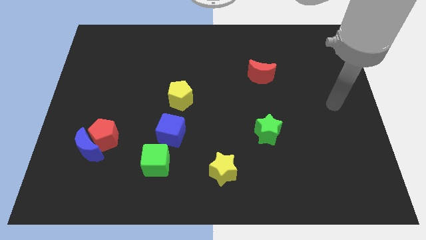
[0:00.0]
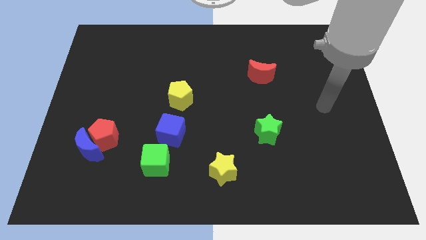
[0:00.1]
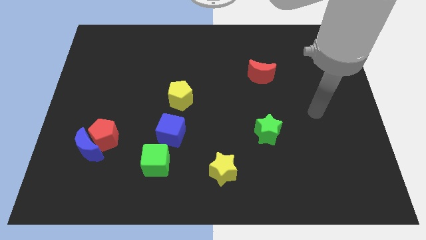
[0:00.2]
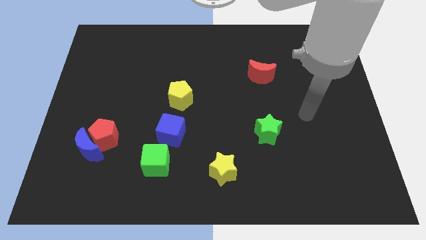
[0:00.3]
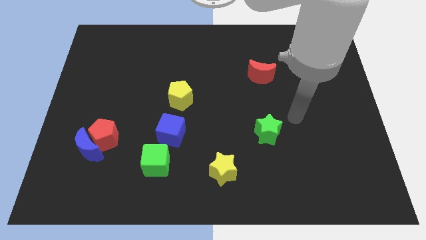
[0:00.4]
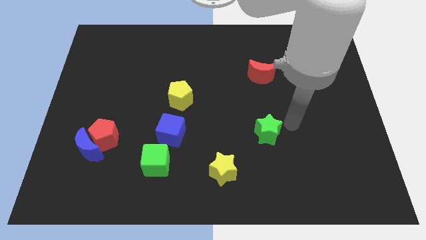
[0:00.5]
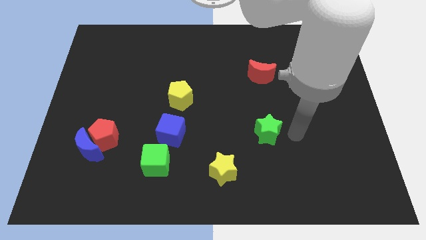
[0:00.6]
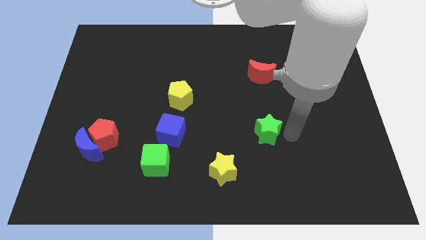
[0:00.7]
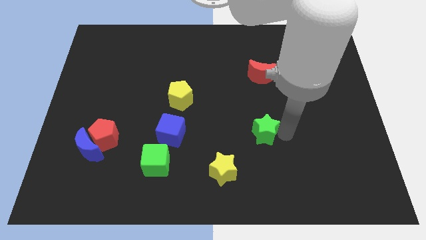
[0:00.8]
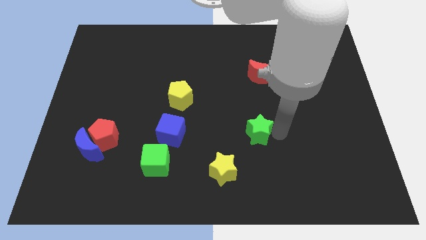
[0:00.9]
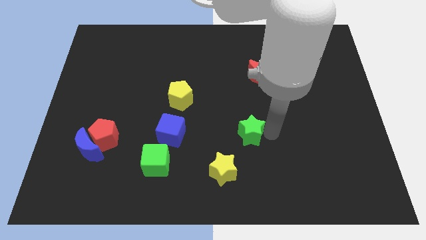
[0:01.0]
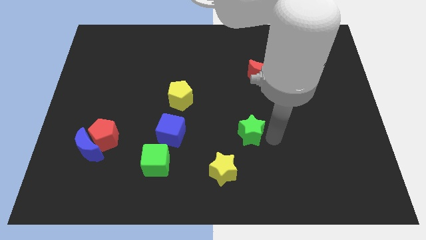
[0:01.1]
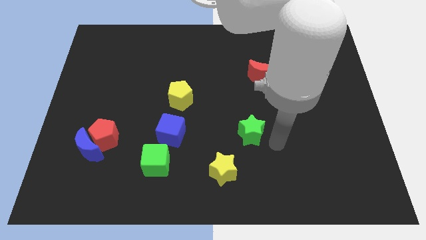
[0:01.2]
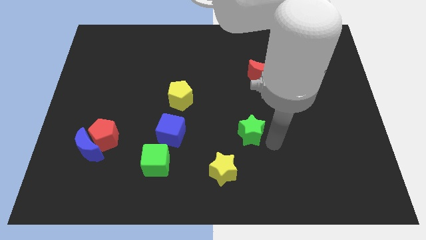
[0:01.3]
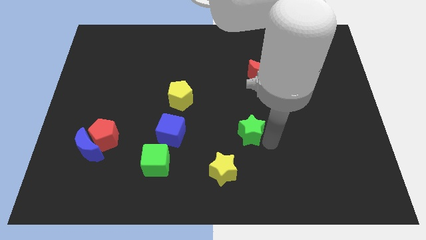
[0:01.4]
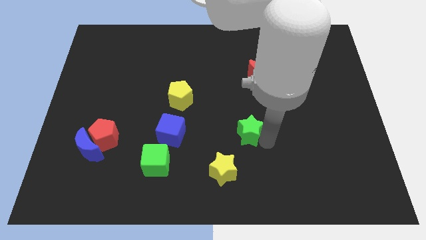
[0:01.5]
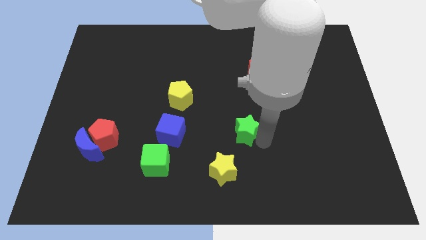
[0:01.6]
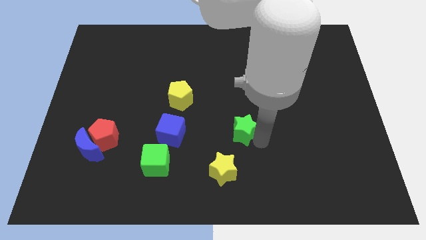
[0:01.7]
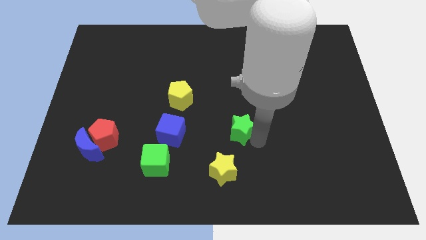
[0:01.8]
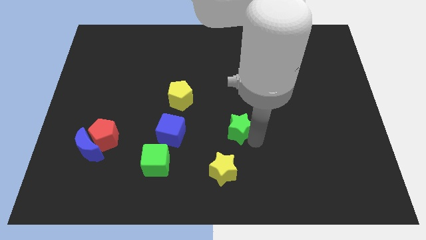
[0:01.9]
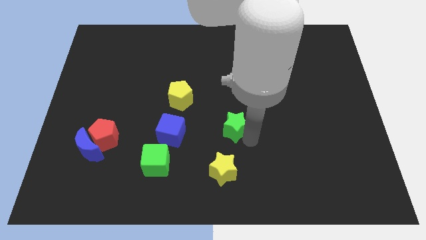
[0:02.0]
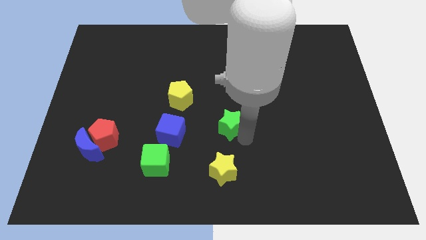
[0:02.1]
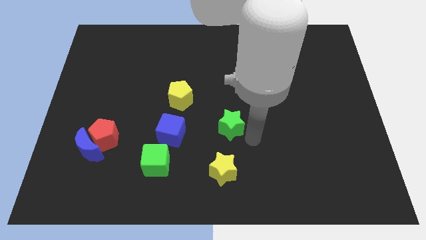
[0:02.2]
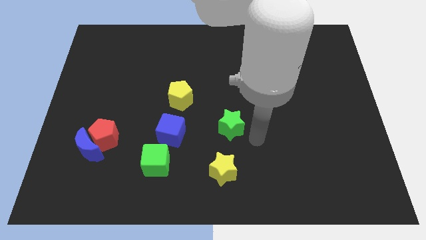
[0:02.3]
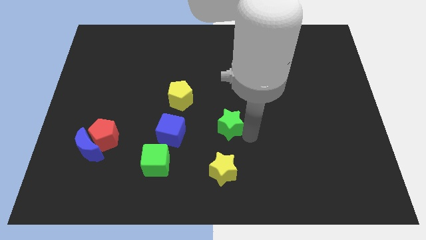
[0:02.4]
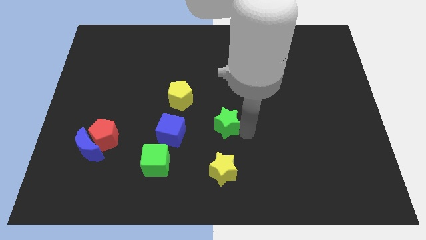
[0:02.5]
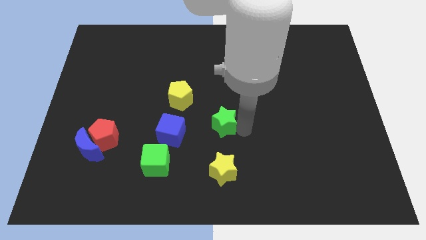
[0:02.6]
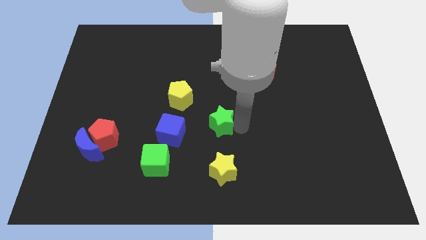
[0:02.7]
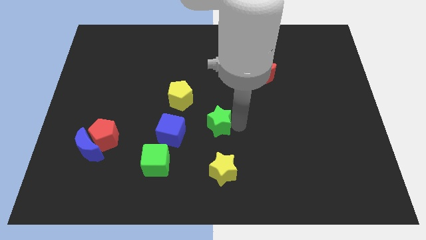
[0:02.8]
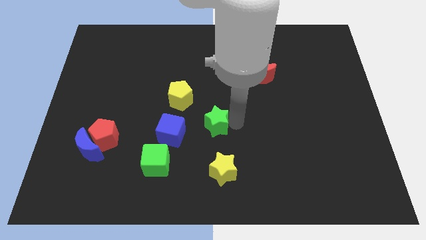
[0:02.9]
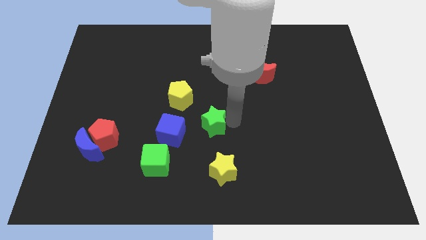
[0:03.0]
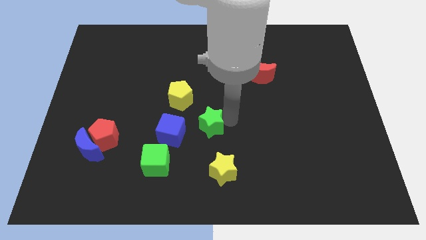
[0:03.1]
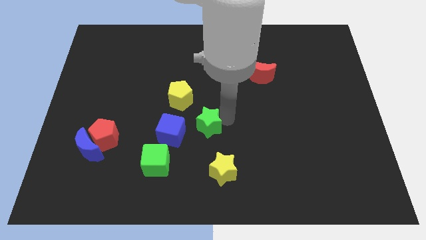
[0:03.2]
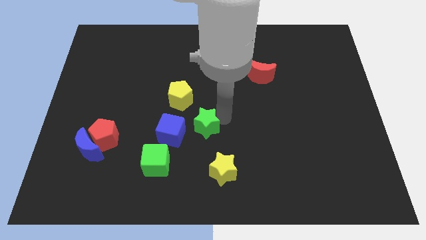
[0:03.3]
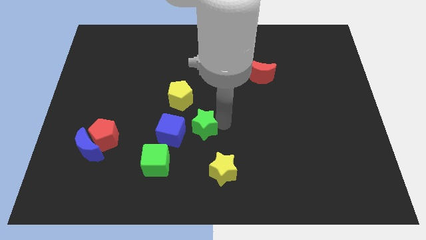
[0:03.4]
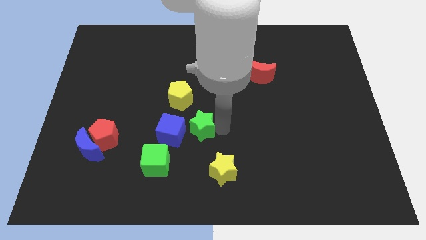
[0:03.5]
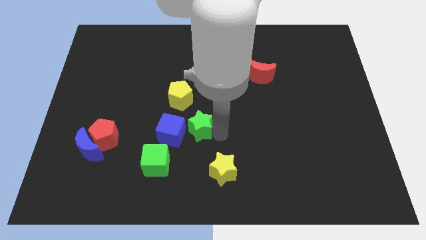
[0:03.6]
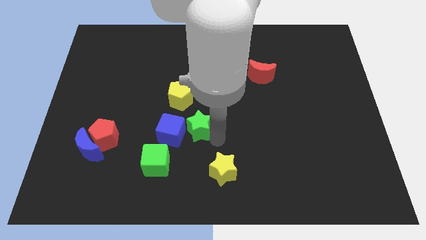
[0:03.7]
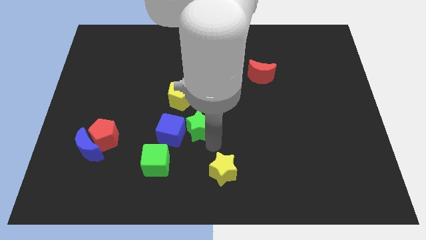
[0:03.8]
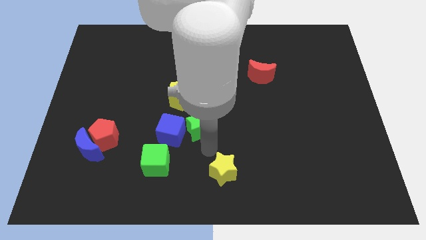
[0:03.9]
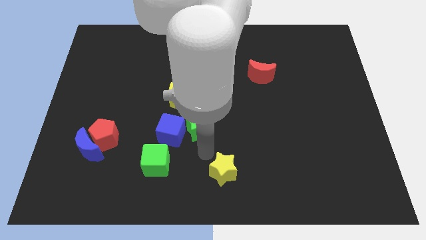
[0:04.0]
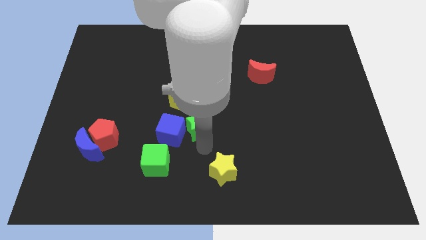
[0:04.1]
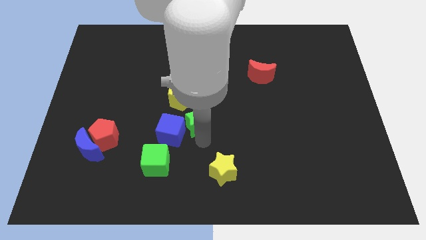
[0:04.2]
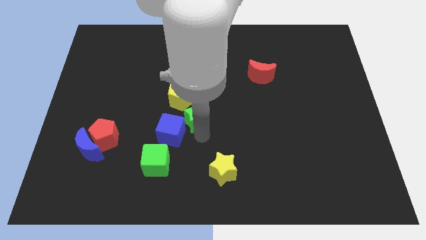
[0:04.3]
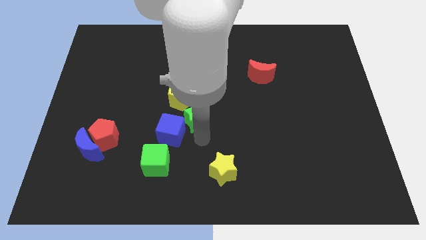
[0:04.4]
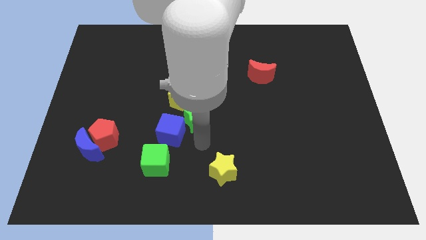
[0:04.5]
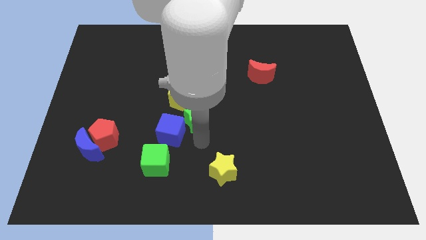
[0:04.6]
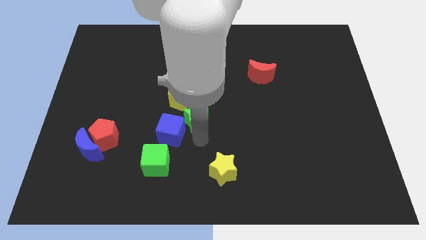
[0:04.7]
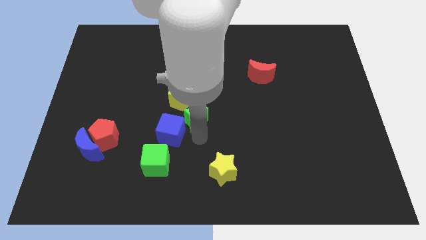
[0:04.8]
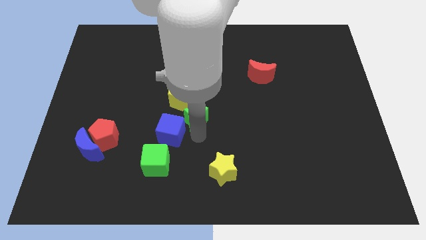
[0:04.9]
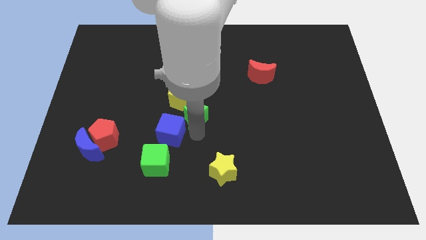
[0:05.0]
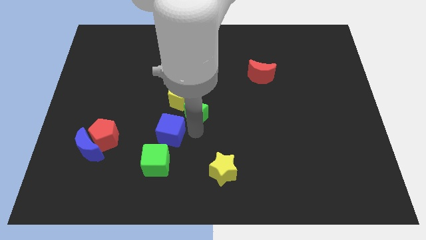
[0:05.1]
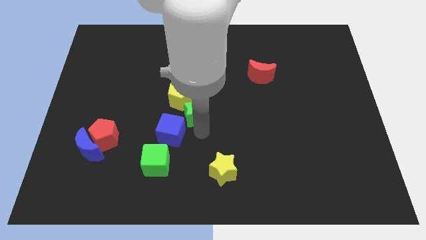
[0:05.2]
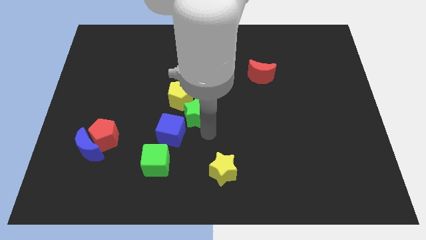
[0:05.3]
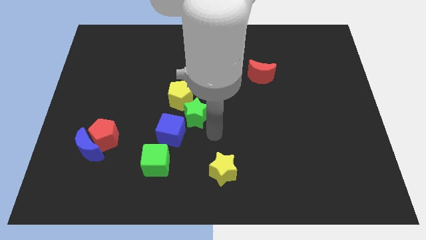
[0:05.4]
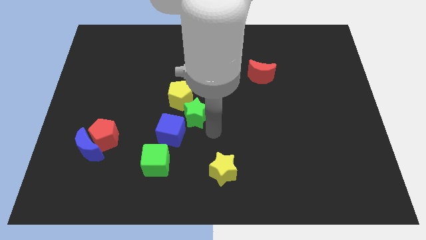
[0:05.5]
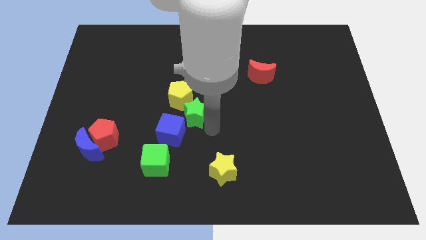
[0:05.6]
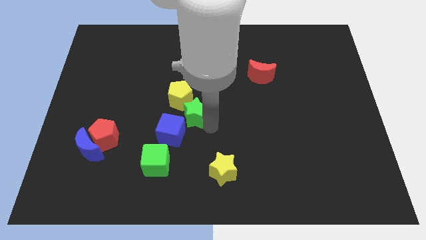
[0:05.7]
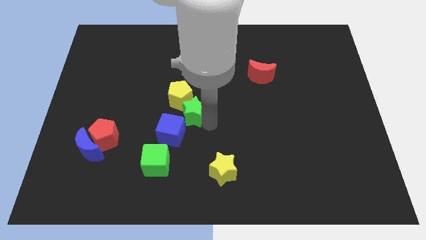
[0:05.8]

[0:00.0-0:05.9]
push the green star to the yellow pentagon

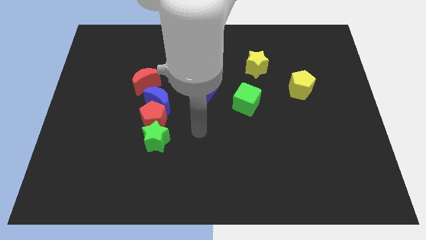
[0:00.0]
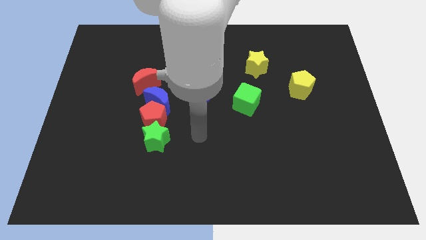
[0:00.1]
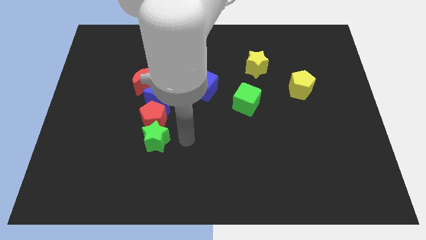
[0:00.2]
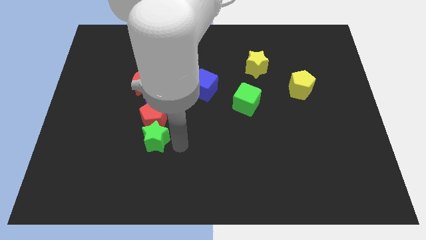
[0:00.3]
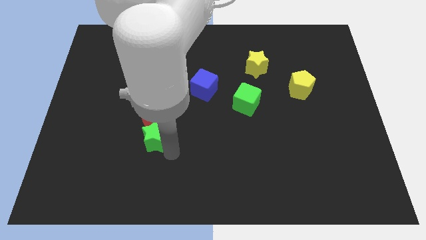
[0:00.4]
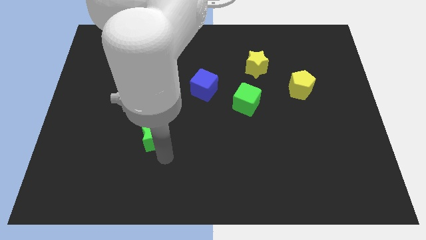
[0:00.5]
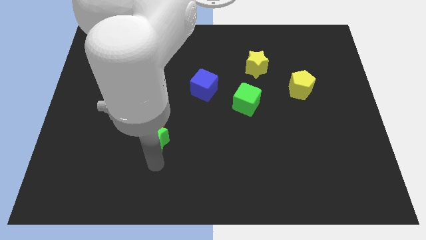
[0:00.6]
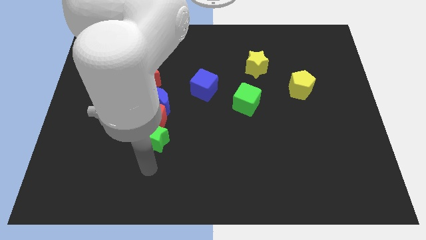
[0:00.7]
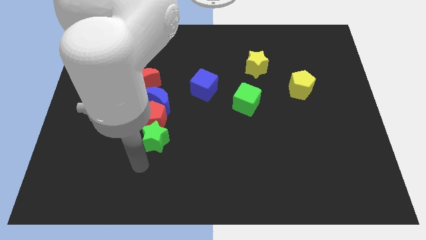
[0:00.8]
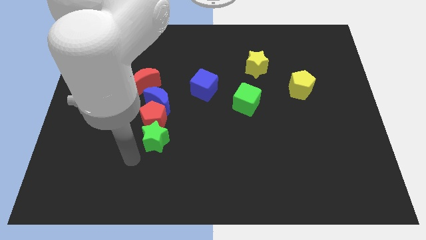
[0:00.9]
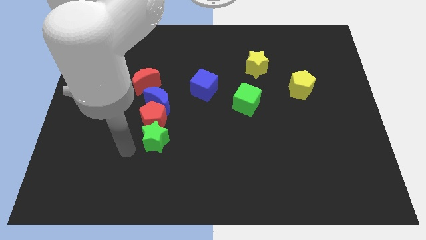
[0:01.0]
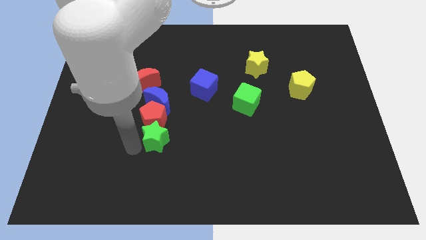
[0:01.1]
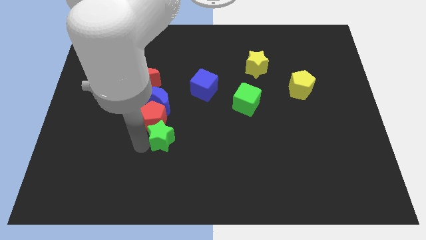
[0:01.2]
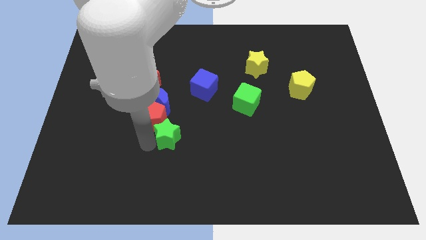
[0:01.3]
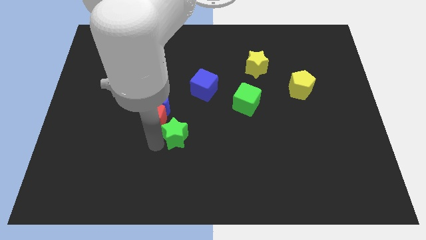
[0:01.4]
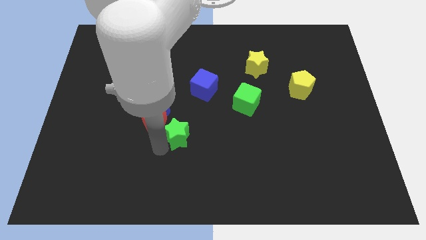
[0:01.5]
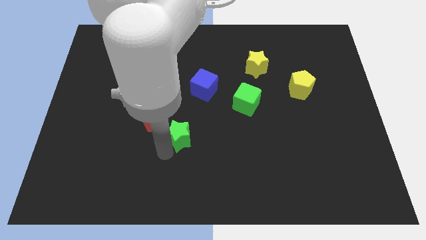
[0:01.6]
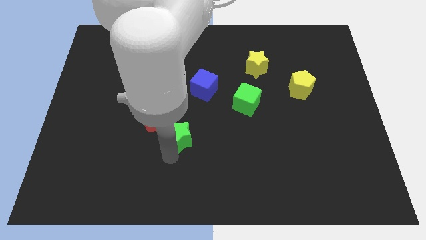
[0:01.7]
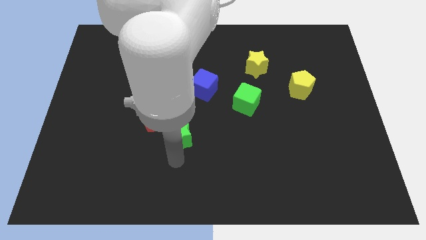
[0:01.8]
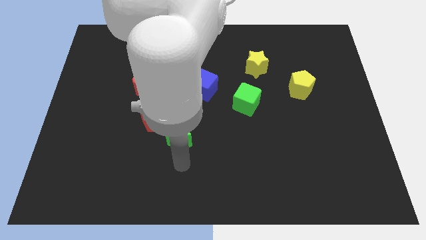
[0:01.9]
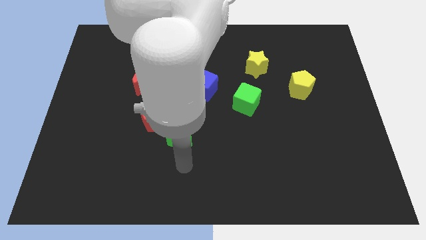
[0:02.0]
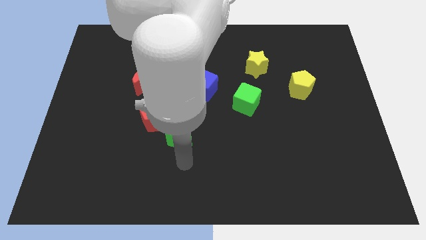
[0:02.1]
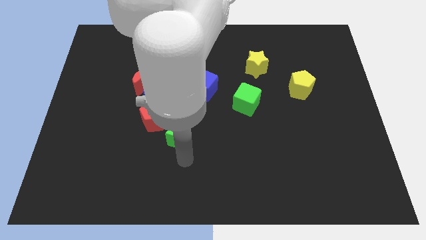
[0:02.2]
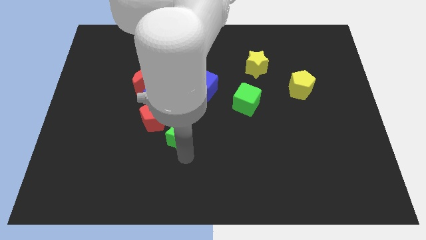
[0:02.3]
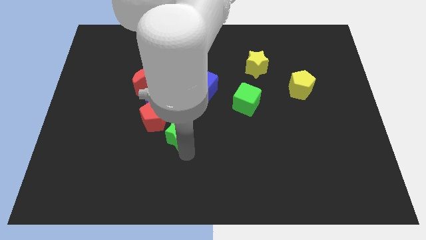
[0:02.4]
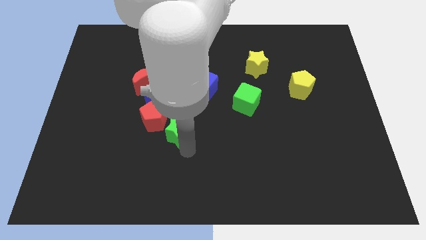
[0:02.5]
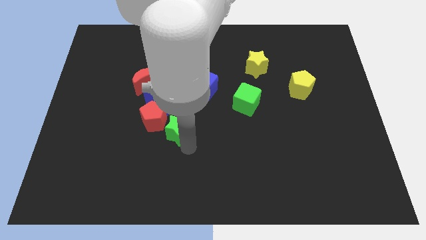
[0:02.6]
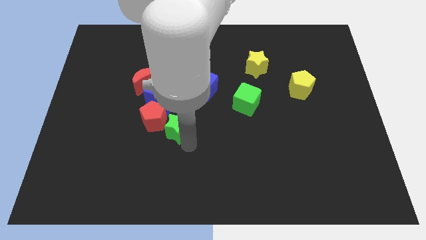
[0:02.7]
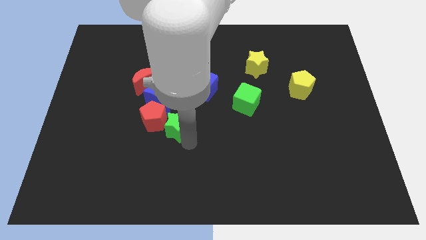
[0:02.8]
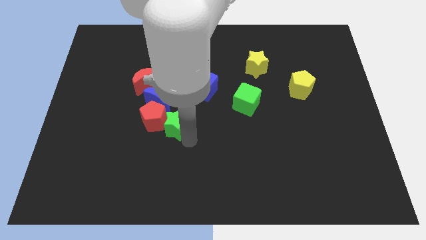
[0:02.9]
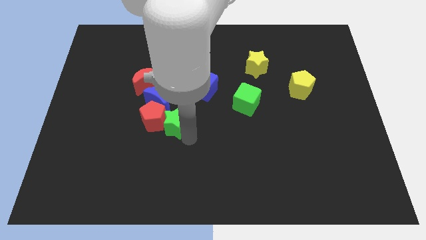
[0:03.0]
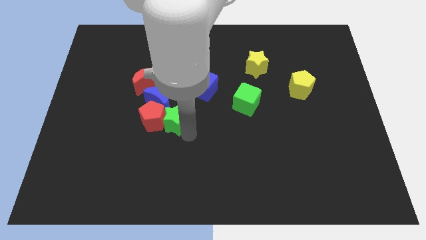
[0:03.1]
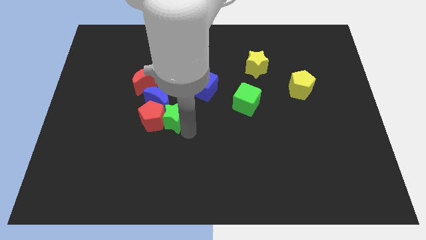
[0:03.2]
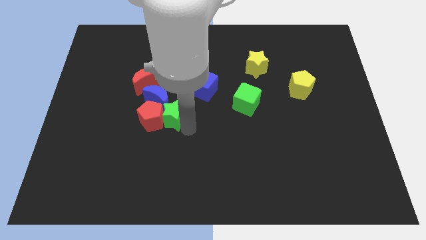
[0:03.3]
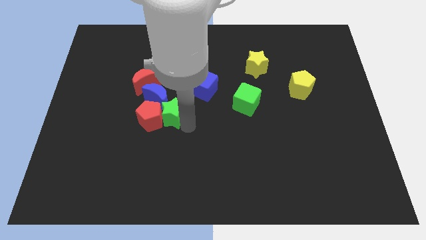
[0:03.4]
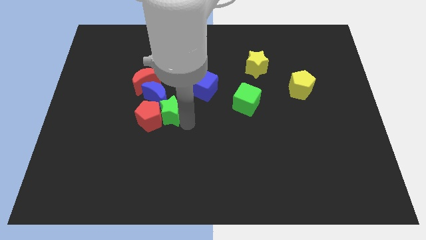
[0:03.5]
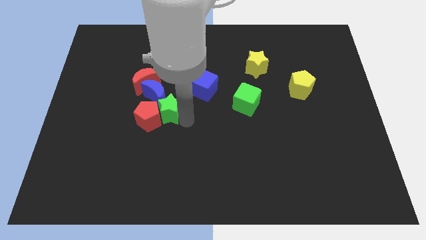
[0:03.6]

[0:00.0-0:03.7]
put the green star close to the blue moon
